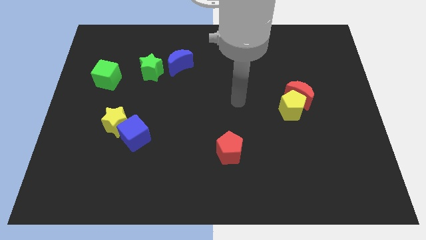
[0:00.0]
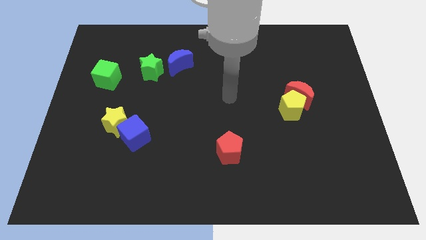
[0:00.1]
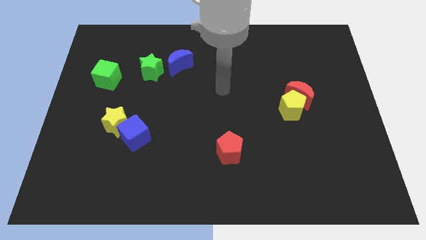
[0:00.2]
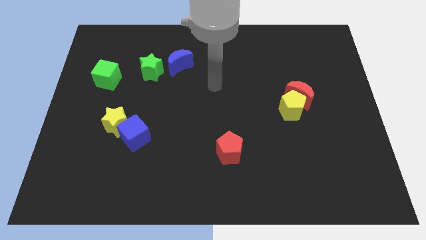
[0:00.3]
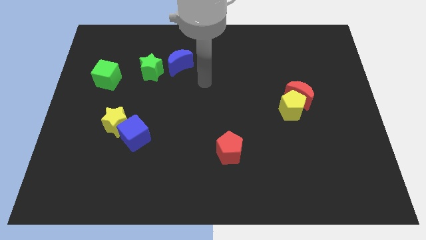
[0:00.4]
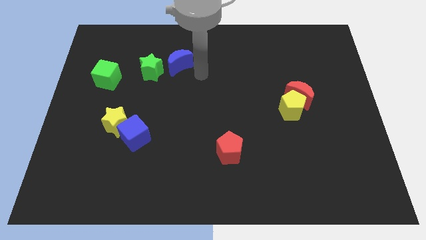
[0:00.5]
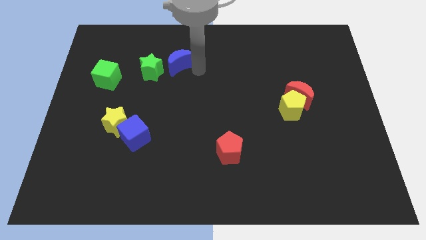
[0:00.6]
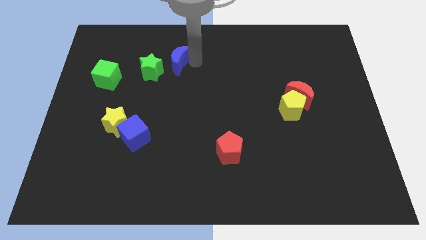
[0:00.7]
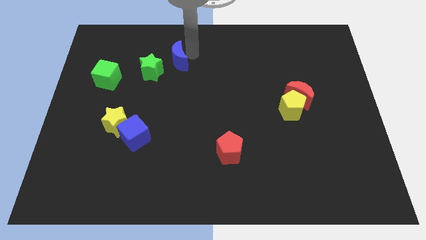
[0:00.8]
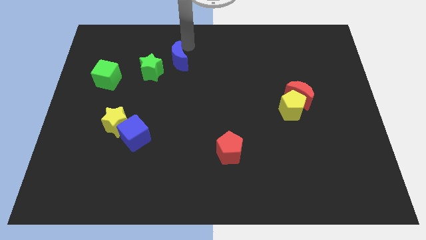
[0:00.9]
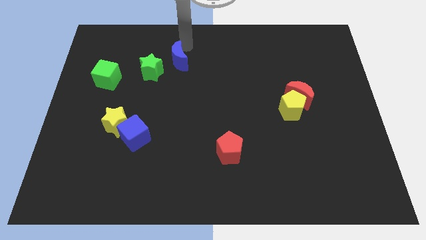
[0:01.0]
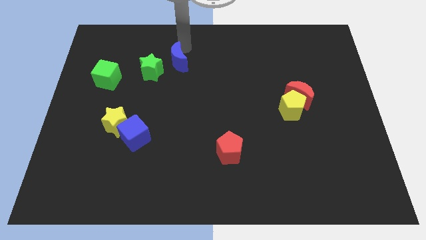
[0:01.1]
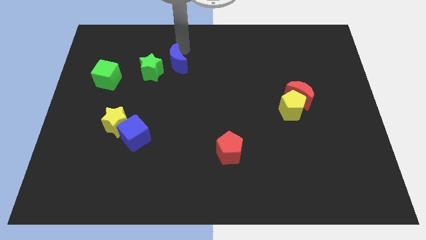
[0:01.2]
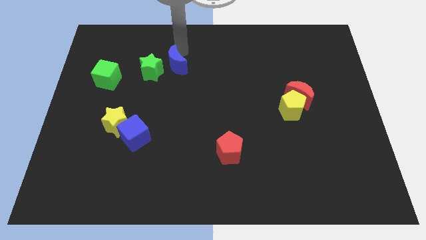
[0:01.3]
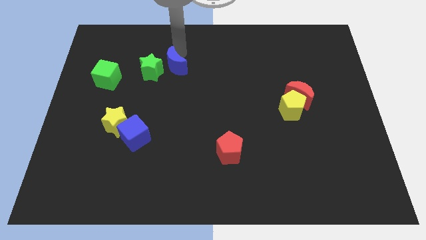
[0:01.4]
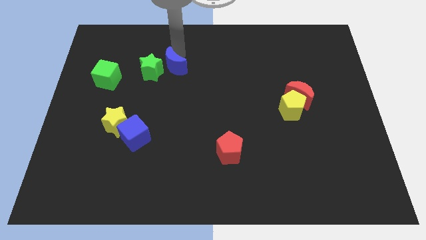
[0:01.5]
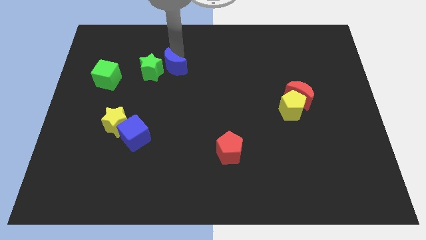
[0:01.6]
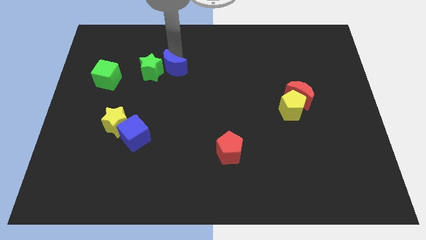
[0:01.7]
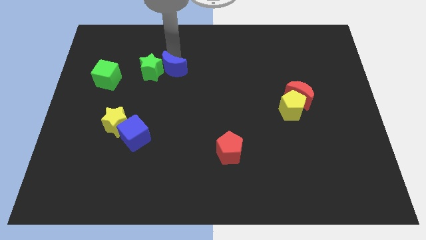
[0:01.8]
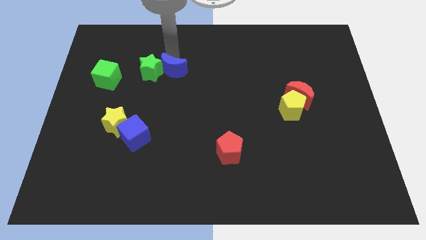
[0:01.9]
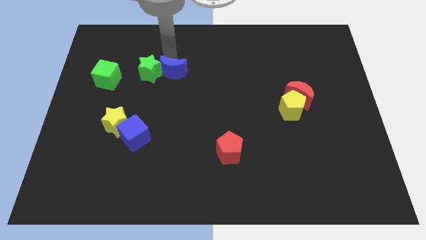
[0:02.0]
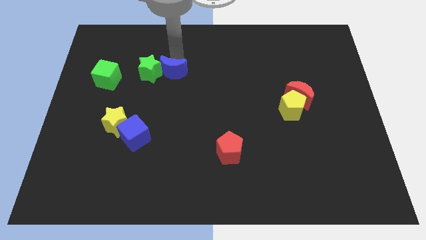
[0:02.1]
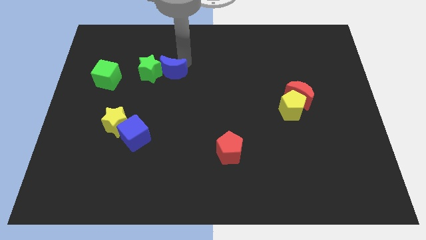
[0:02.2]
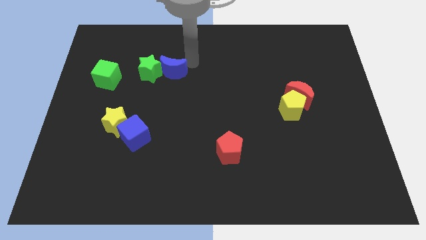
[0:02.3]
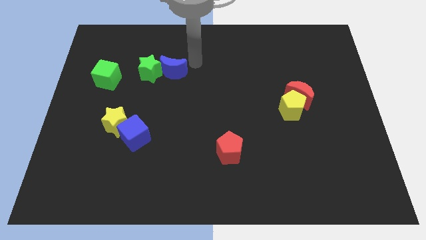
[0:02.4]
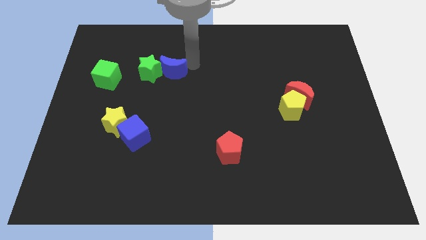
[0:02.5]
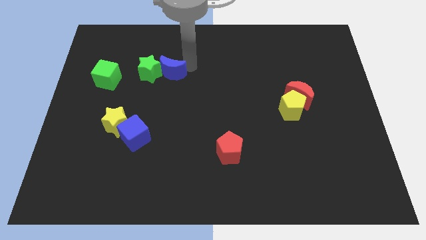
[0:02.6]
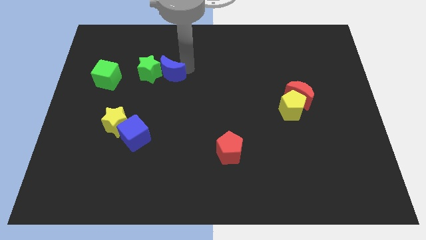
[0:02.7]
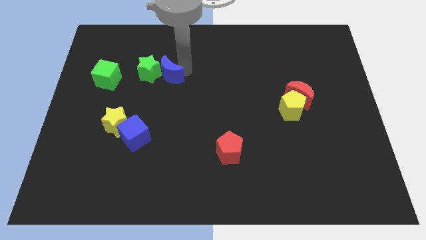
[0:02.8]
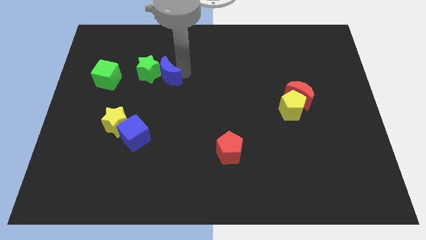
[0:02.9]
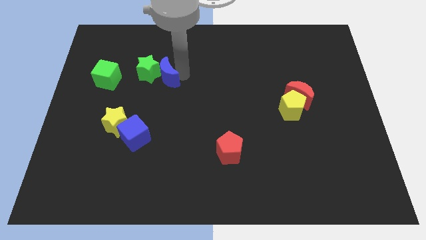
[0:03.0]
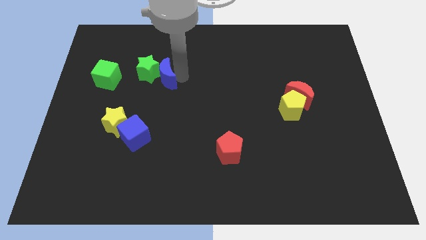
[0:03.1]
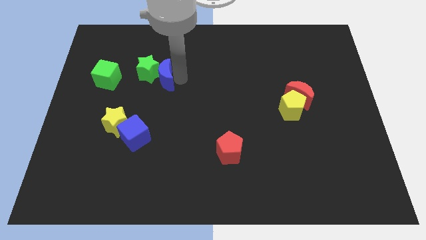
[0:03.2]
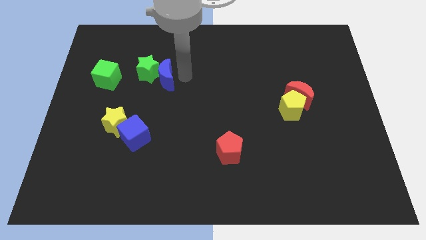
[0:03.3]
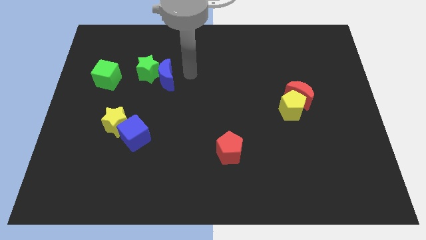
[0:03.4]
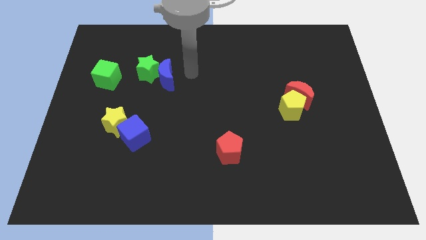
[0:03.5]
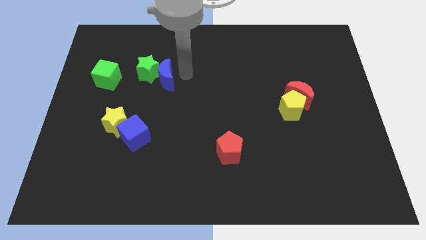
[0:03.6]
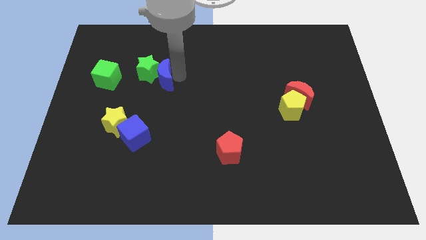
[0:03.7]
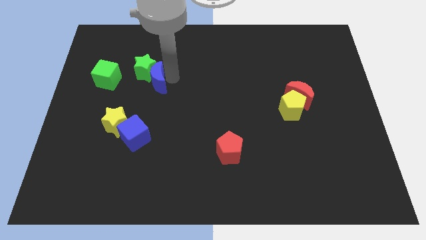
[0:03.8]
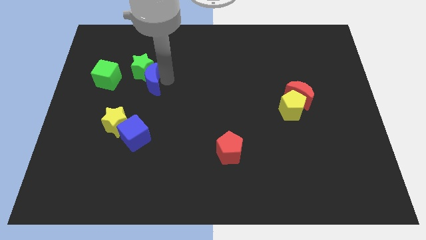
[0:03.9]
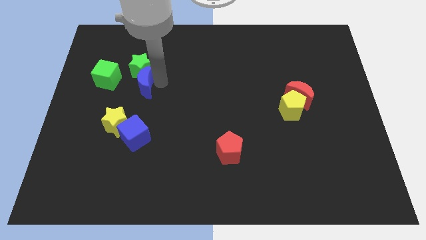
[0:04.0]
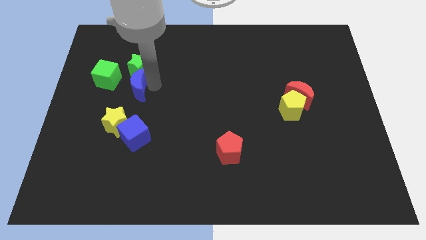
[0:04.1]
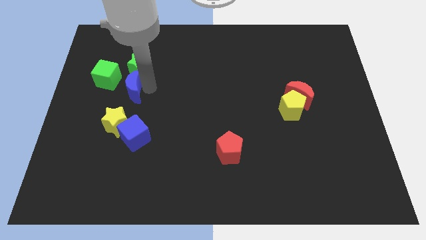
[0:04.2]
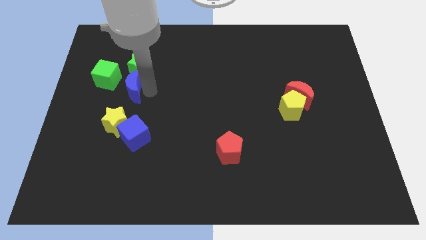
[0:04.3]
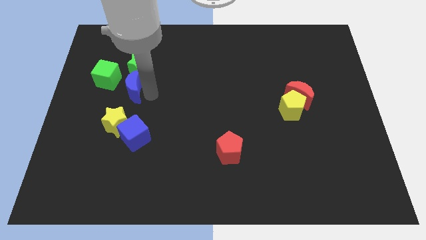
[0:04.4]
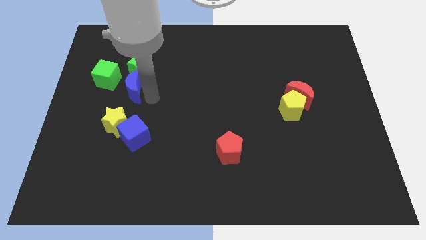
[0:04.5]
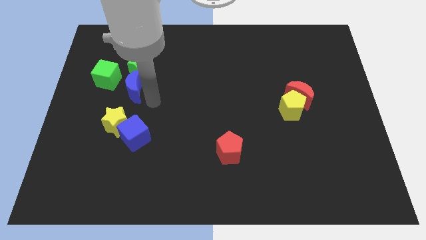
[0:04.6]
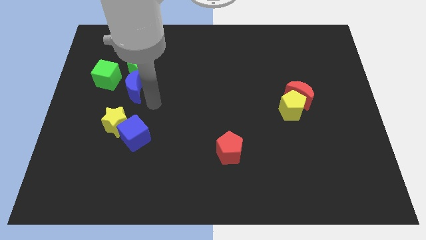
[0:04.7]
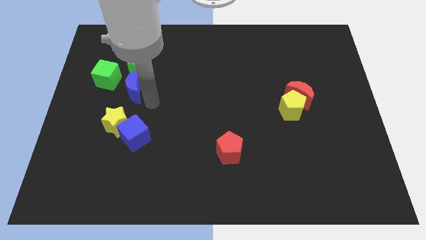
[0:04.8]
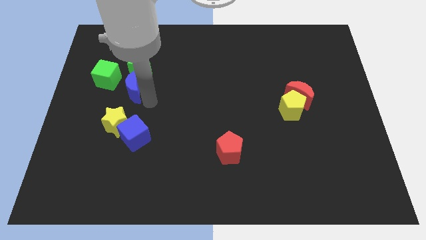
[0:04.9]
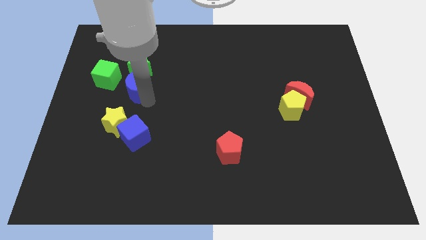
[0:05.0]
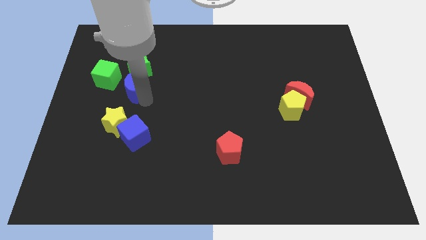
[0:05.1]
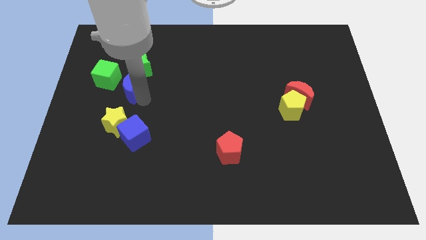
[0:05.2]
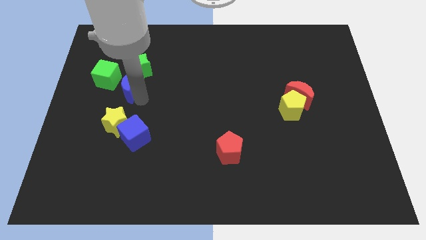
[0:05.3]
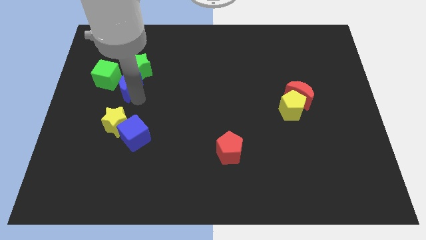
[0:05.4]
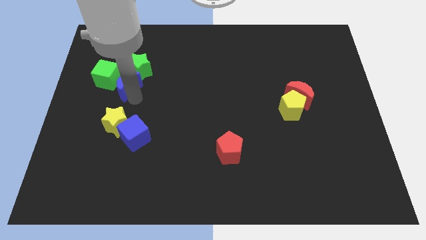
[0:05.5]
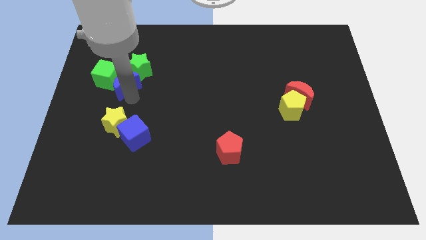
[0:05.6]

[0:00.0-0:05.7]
move the blue moon to the green cube

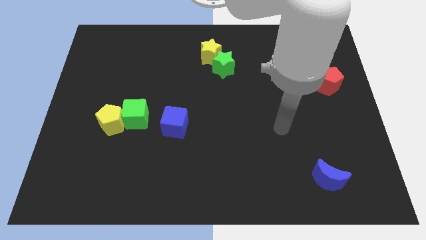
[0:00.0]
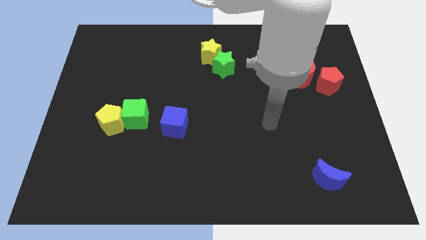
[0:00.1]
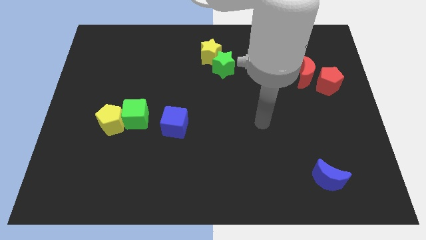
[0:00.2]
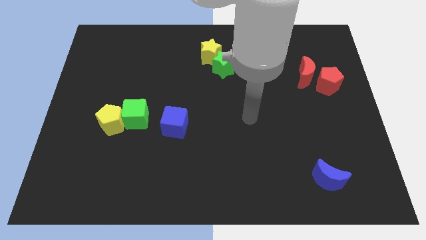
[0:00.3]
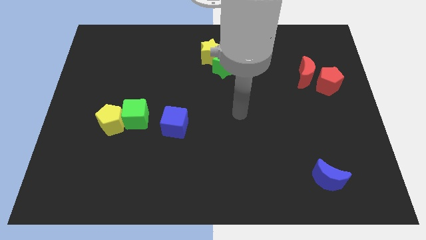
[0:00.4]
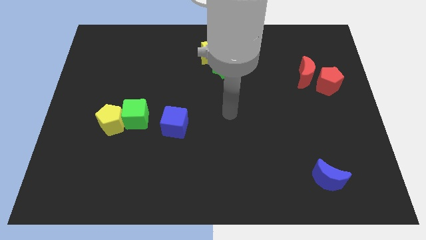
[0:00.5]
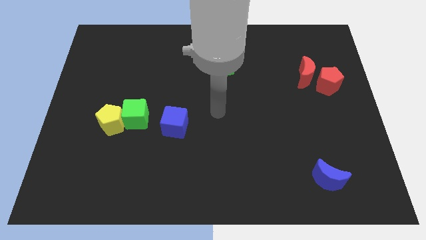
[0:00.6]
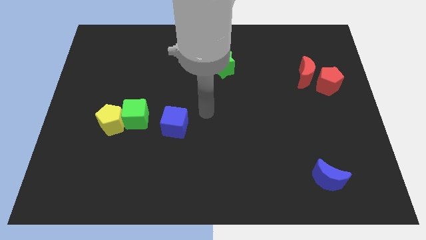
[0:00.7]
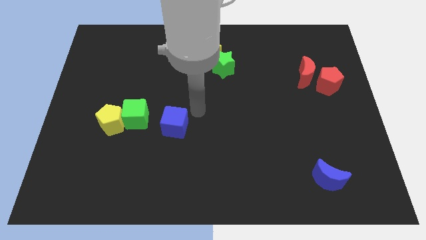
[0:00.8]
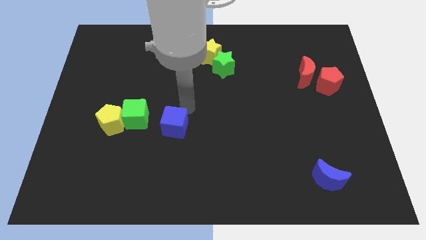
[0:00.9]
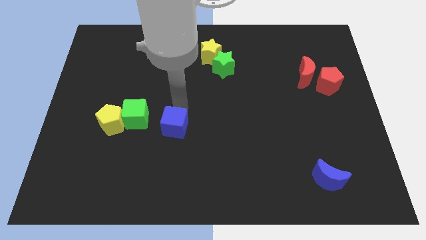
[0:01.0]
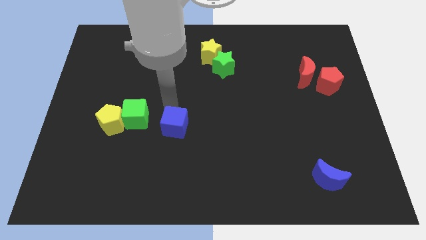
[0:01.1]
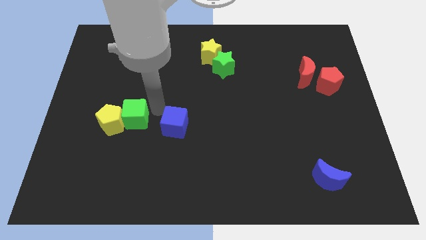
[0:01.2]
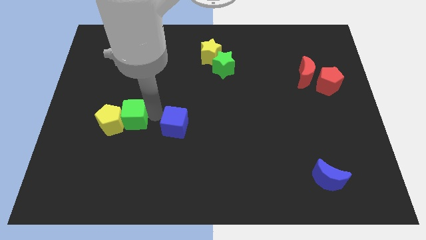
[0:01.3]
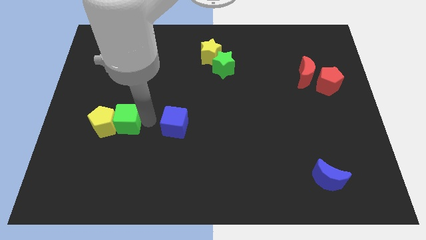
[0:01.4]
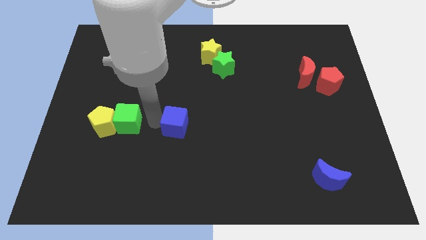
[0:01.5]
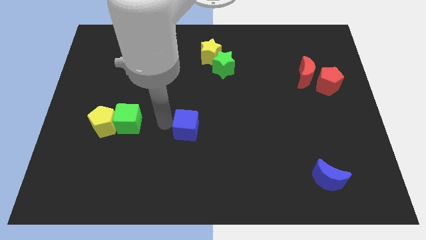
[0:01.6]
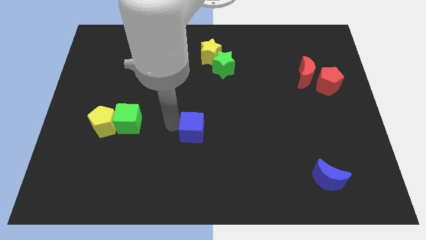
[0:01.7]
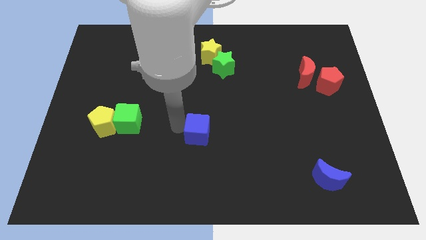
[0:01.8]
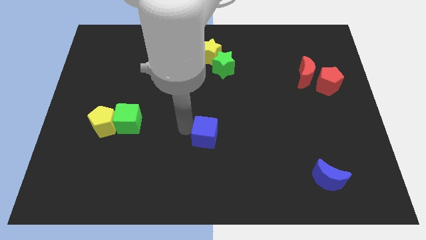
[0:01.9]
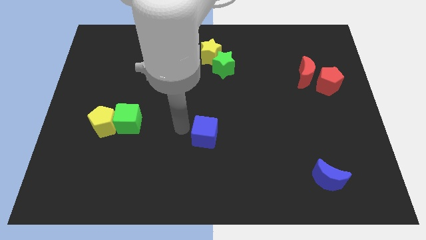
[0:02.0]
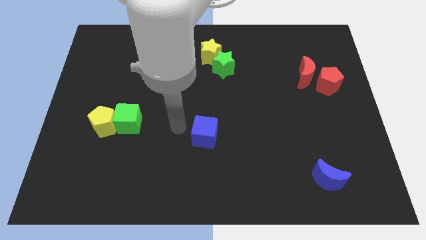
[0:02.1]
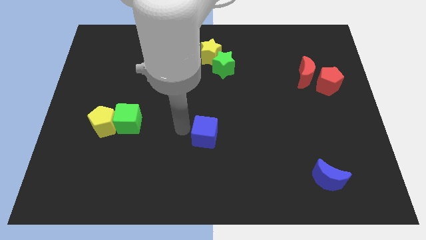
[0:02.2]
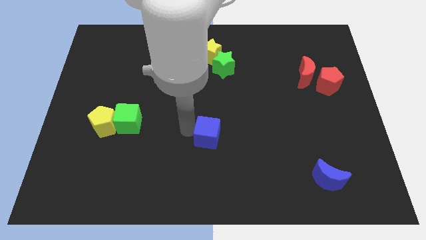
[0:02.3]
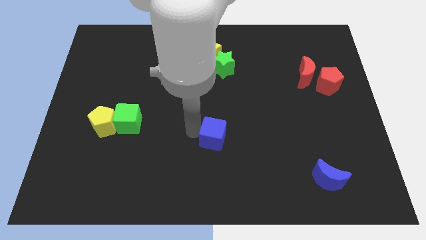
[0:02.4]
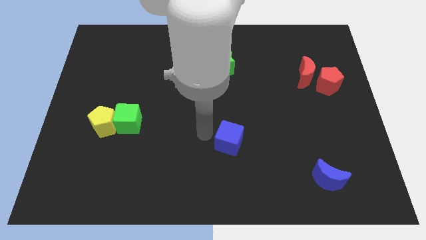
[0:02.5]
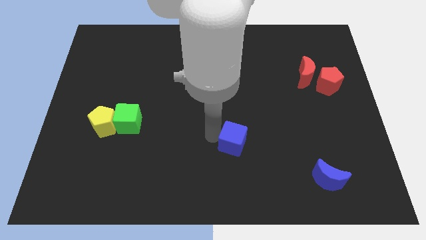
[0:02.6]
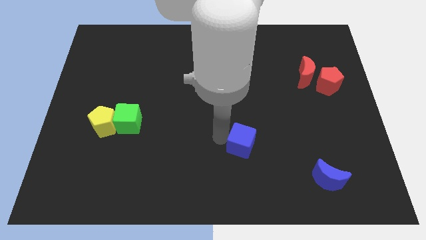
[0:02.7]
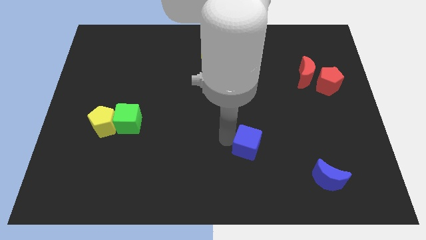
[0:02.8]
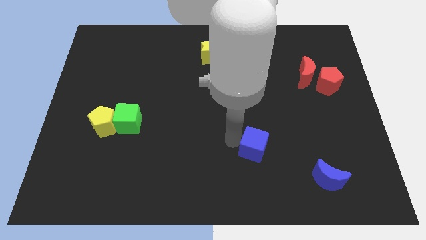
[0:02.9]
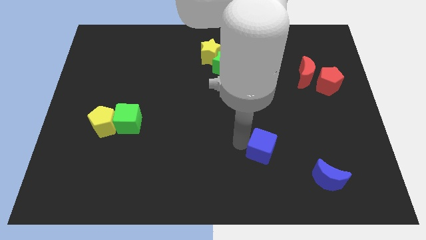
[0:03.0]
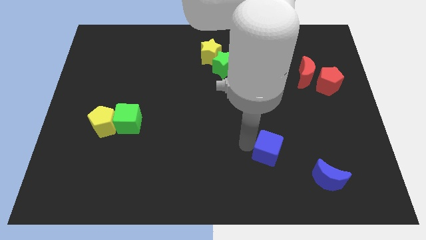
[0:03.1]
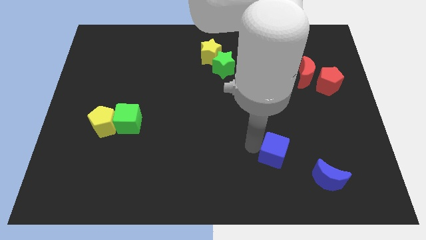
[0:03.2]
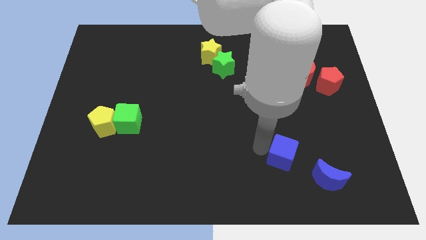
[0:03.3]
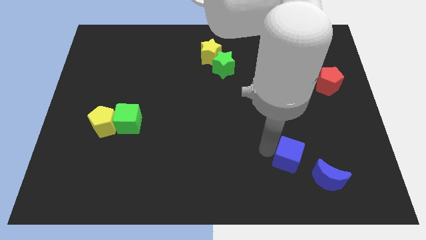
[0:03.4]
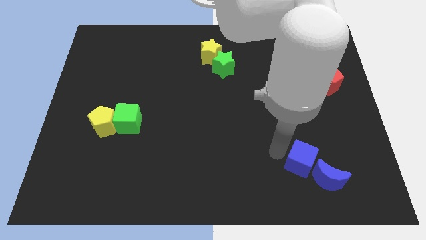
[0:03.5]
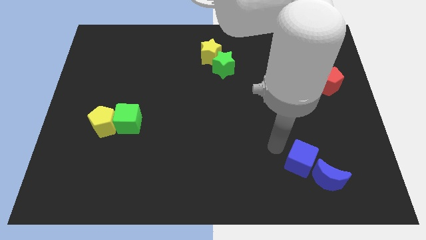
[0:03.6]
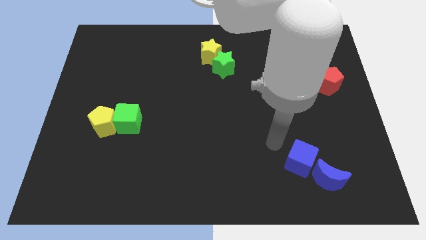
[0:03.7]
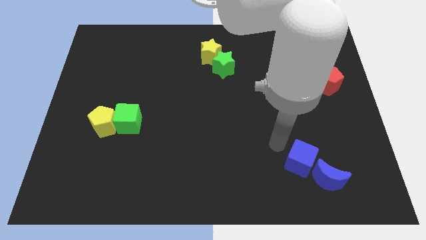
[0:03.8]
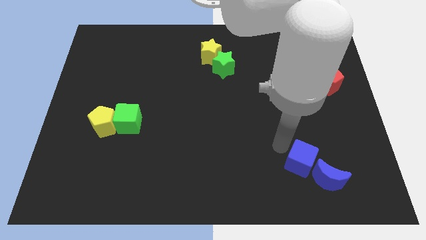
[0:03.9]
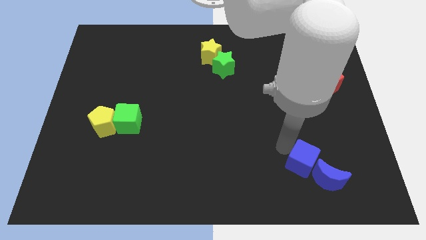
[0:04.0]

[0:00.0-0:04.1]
move the blue cube next to the blue moon
